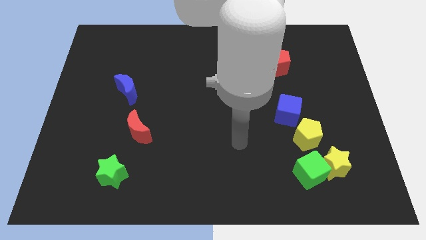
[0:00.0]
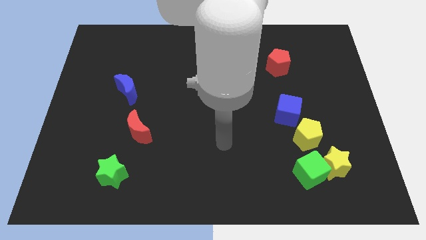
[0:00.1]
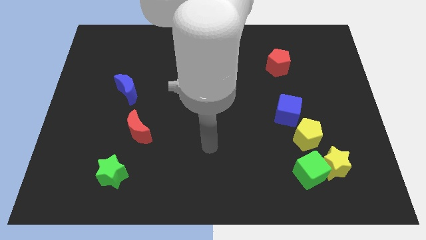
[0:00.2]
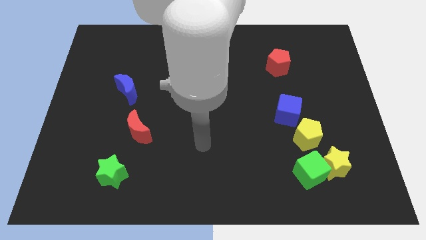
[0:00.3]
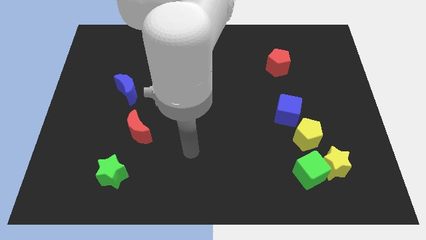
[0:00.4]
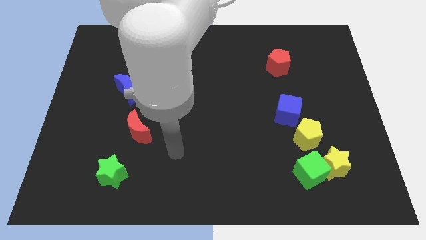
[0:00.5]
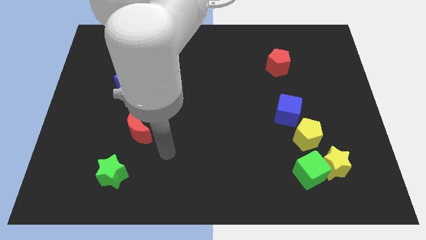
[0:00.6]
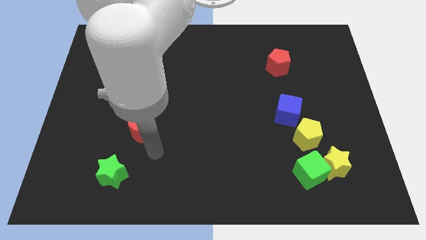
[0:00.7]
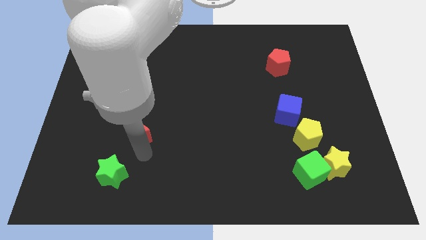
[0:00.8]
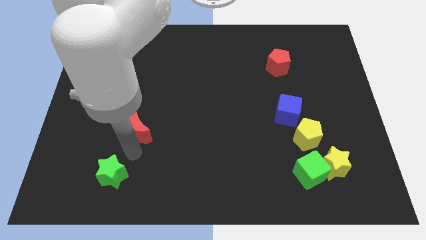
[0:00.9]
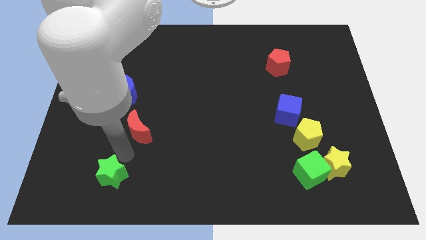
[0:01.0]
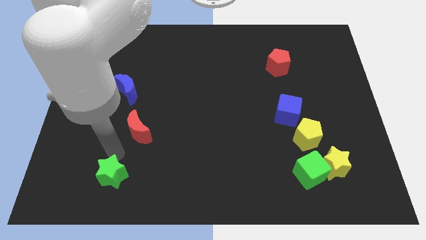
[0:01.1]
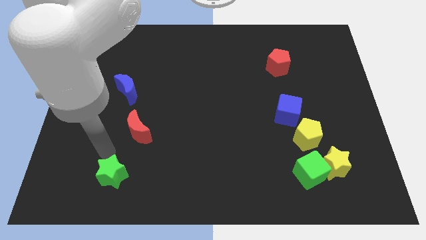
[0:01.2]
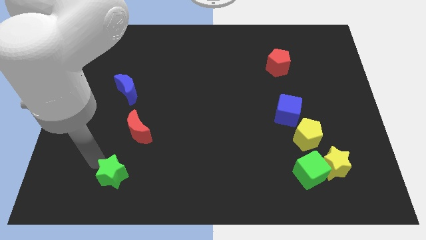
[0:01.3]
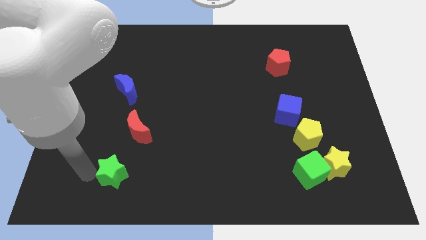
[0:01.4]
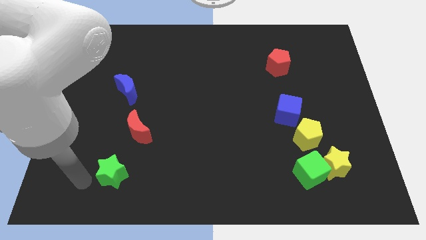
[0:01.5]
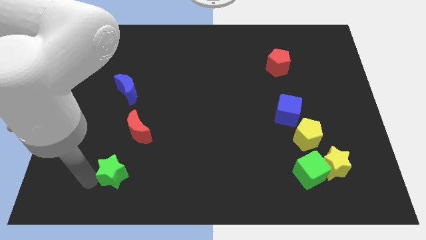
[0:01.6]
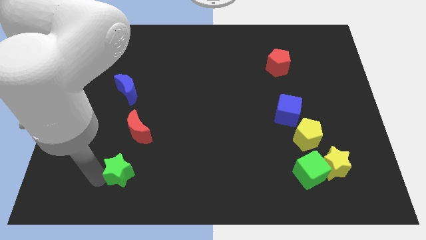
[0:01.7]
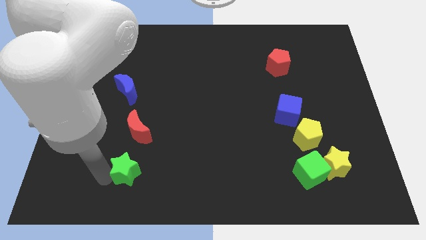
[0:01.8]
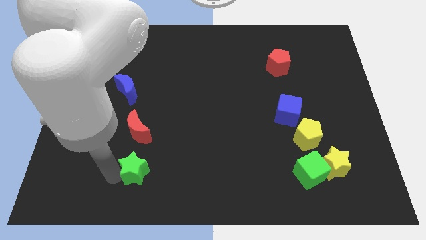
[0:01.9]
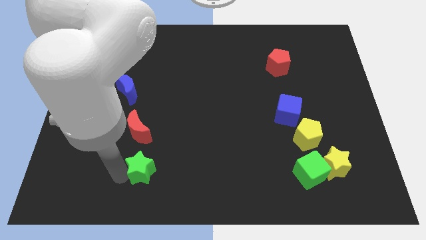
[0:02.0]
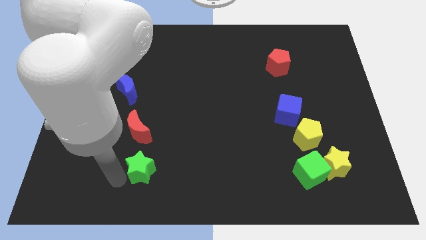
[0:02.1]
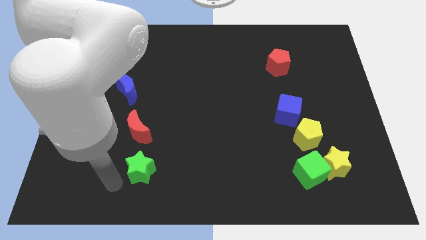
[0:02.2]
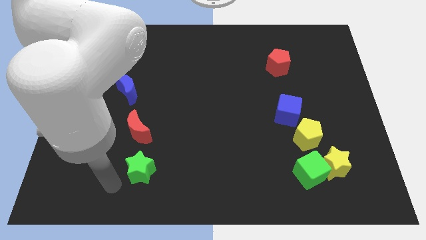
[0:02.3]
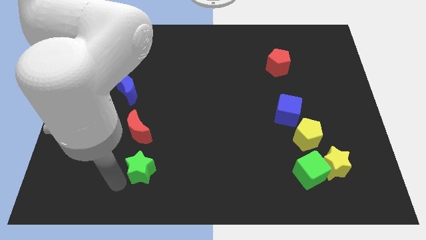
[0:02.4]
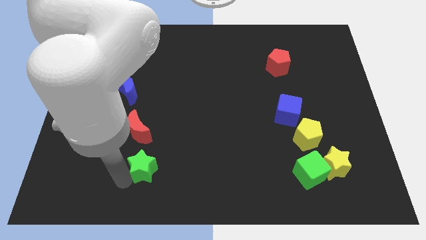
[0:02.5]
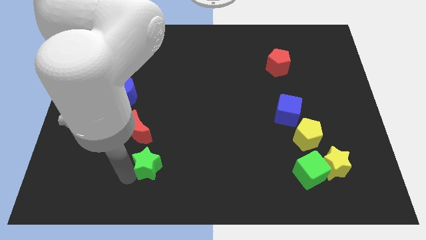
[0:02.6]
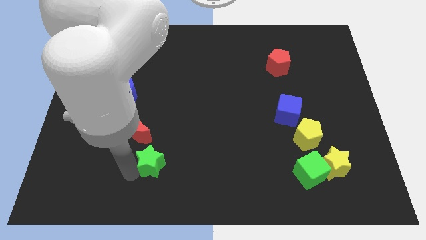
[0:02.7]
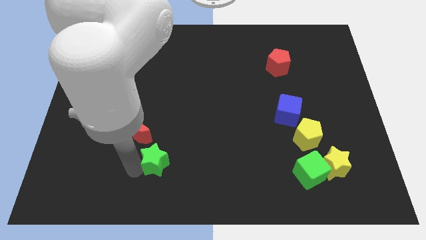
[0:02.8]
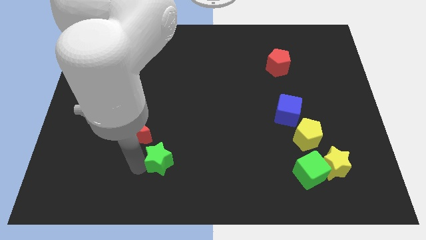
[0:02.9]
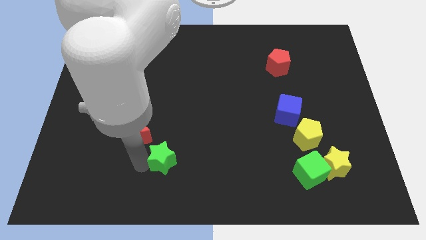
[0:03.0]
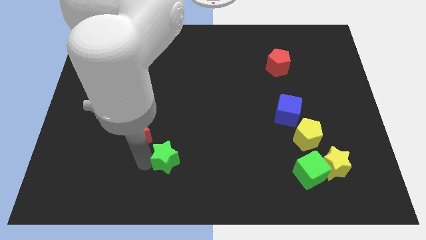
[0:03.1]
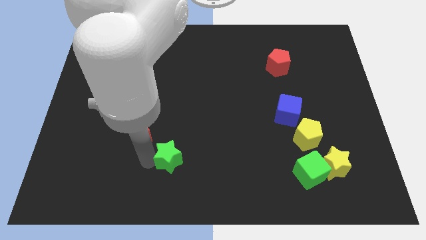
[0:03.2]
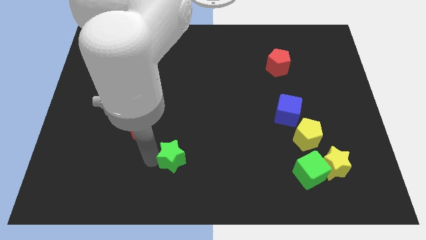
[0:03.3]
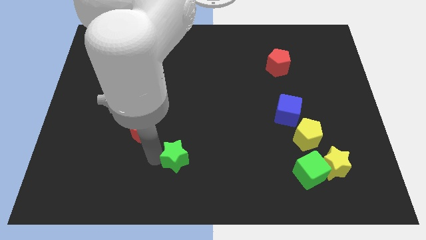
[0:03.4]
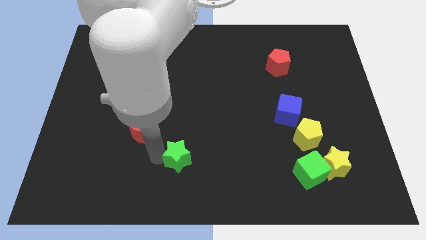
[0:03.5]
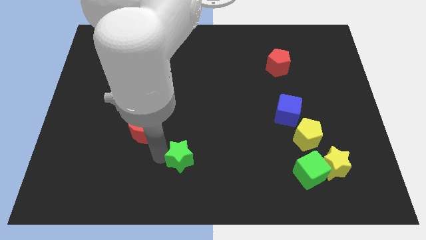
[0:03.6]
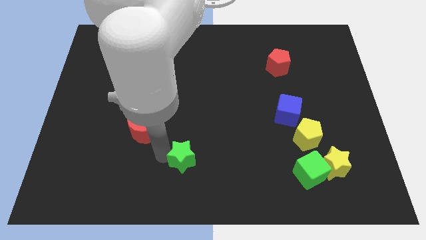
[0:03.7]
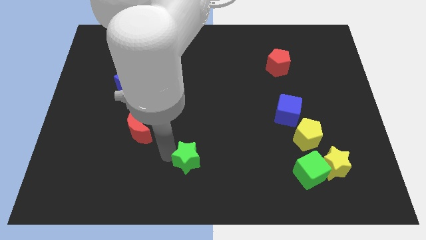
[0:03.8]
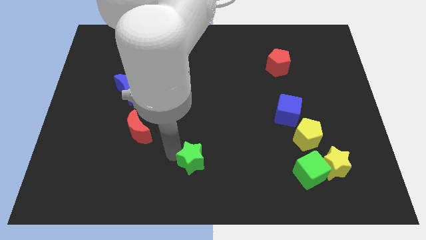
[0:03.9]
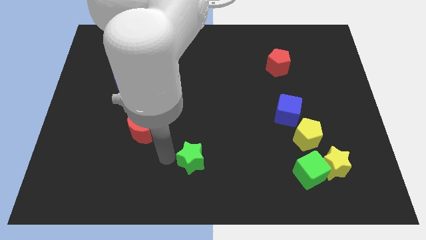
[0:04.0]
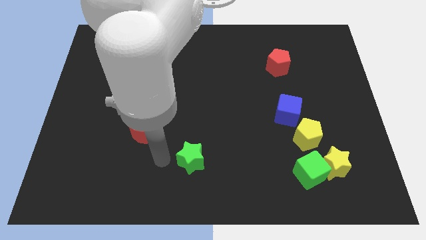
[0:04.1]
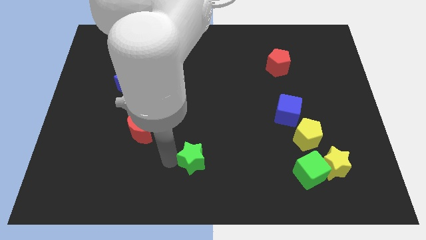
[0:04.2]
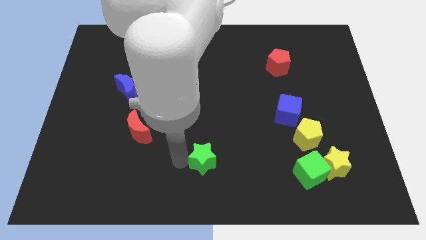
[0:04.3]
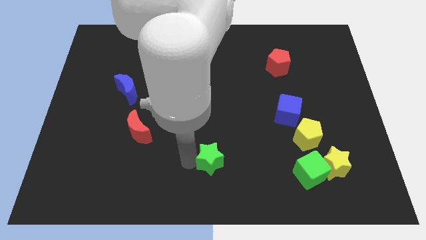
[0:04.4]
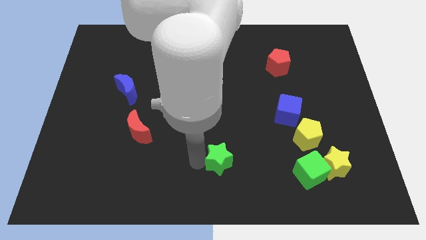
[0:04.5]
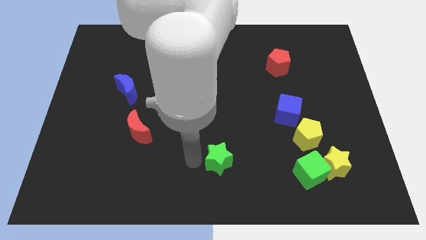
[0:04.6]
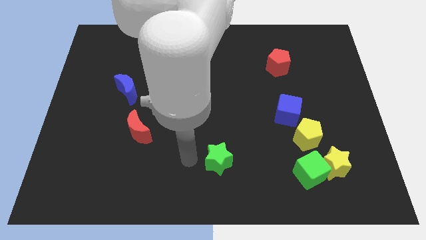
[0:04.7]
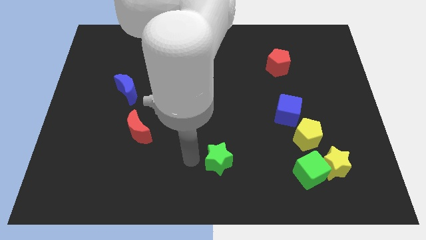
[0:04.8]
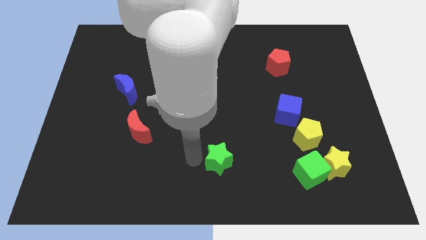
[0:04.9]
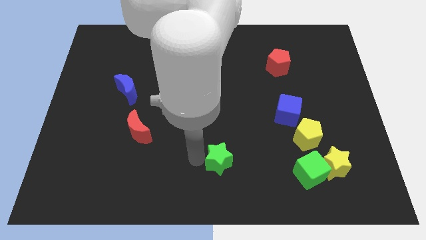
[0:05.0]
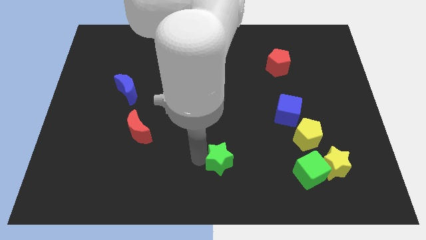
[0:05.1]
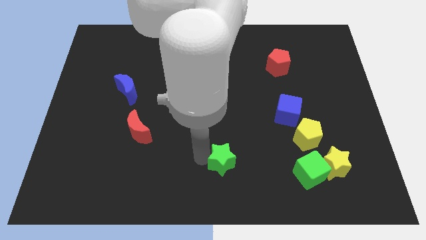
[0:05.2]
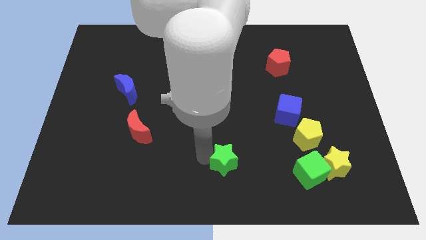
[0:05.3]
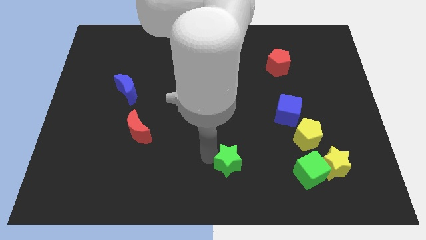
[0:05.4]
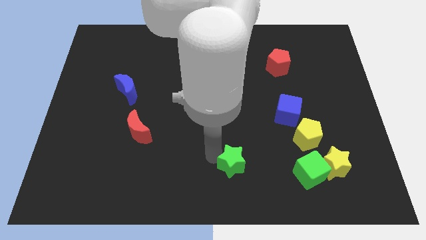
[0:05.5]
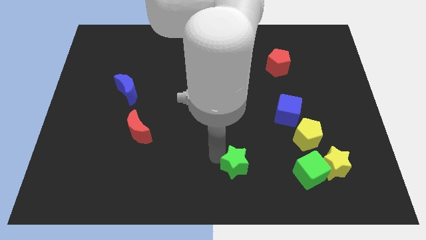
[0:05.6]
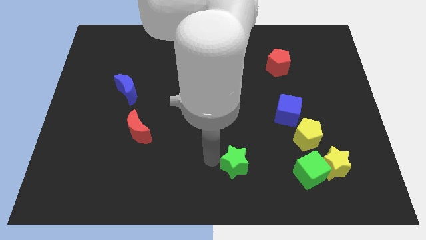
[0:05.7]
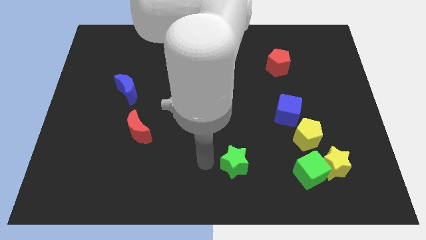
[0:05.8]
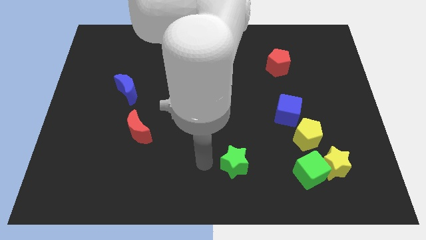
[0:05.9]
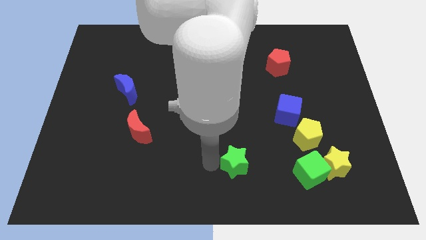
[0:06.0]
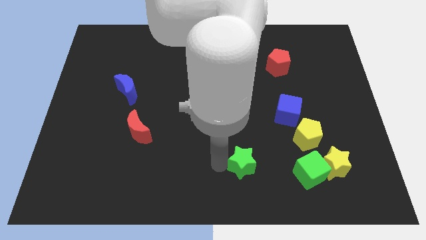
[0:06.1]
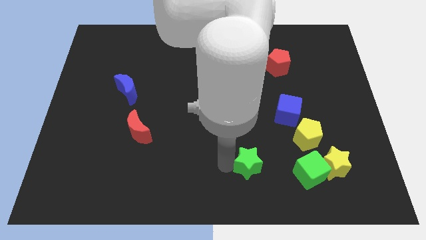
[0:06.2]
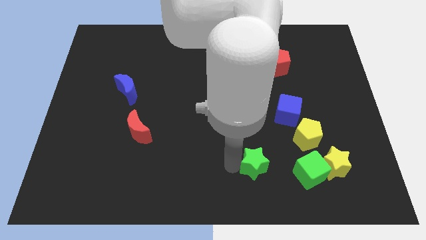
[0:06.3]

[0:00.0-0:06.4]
push the green star just left of the yellow star

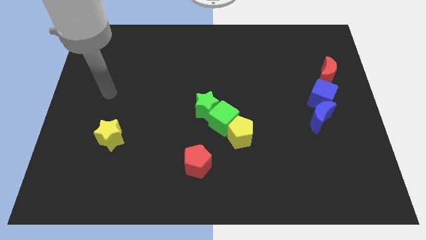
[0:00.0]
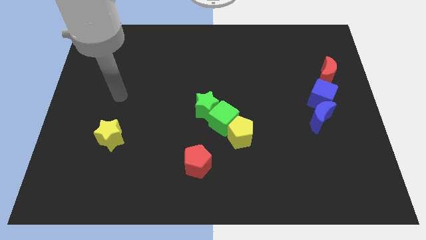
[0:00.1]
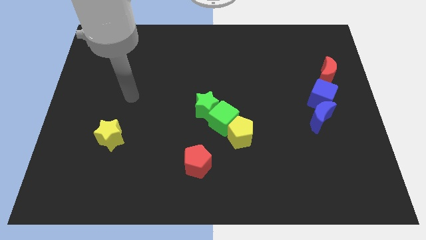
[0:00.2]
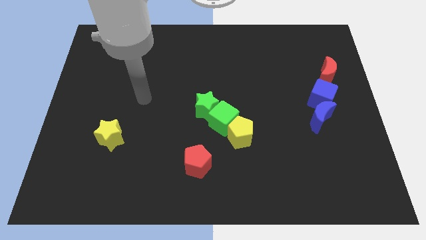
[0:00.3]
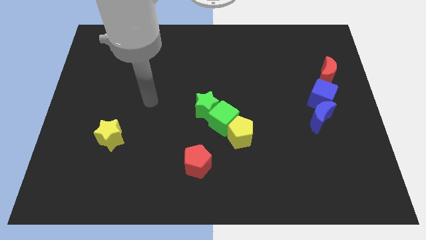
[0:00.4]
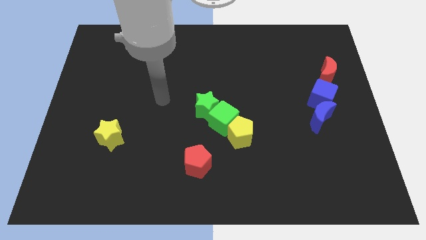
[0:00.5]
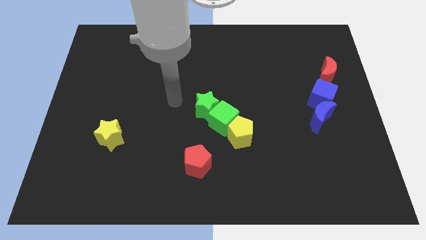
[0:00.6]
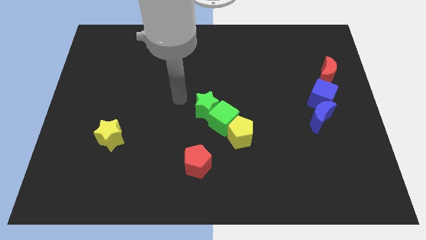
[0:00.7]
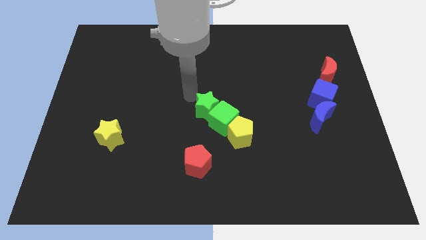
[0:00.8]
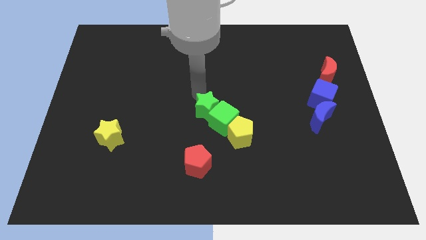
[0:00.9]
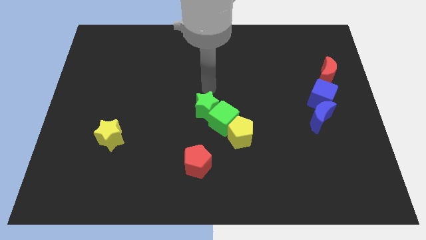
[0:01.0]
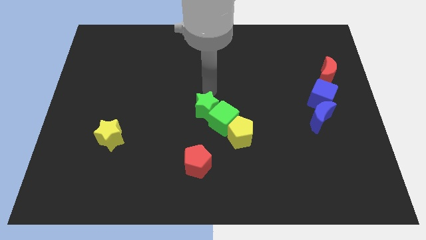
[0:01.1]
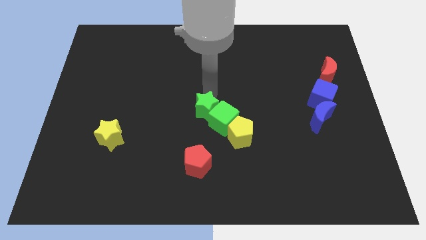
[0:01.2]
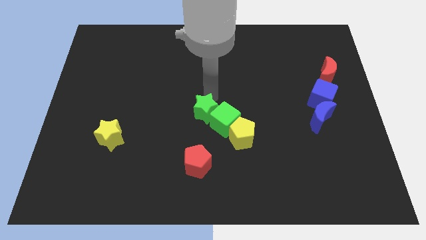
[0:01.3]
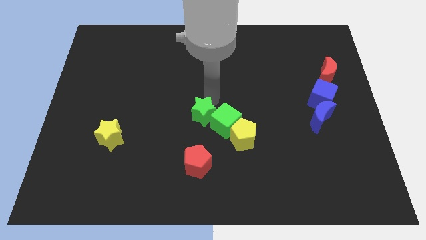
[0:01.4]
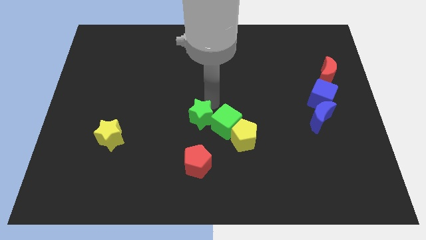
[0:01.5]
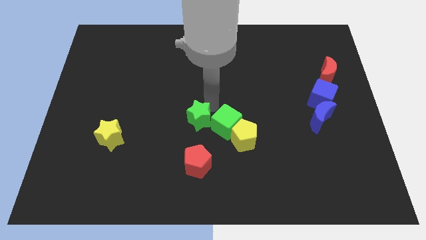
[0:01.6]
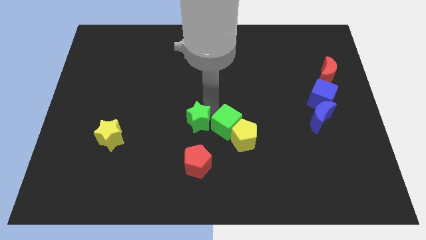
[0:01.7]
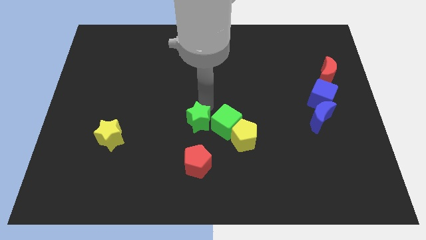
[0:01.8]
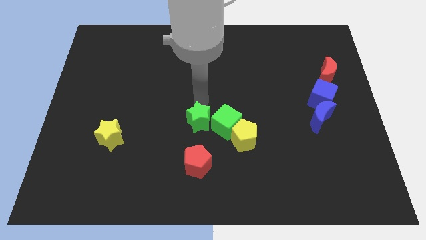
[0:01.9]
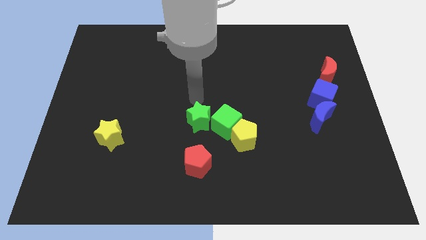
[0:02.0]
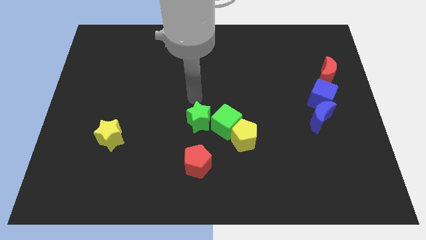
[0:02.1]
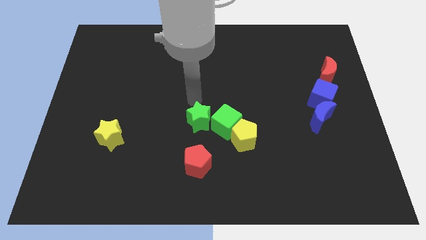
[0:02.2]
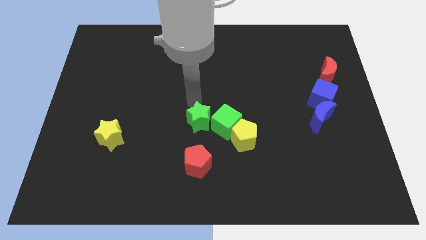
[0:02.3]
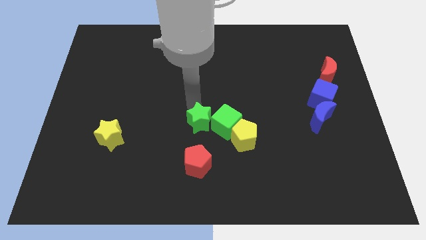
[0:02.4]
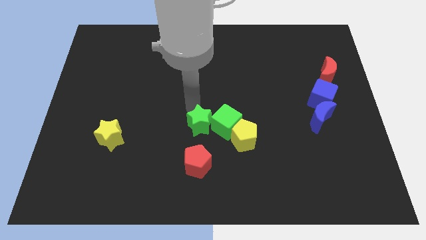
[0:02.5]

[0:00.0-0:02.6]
move the green star diagonally down and to the left of the green cube
